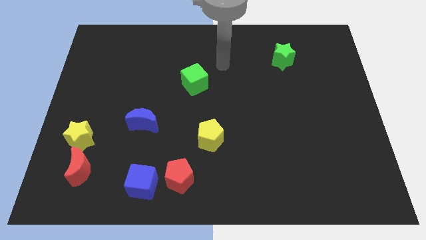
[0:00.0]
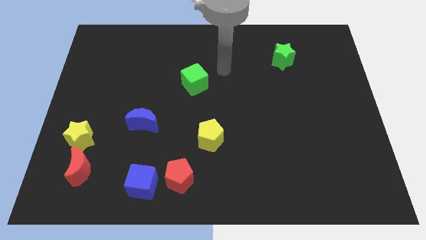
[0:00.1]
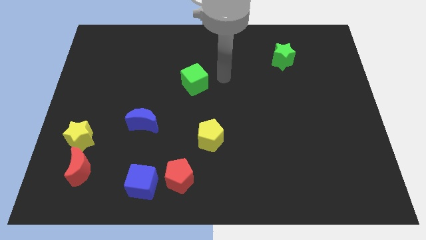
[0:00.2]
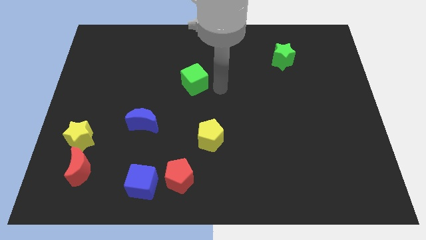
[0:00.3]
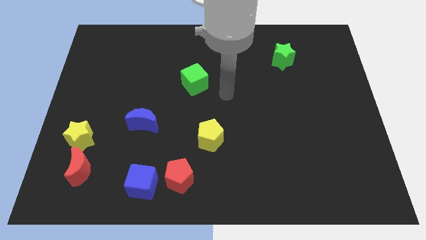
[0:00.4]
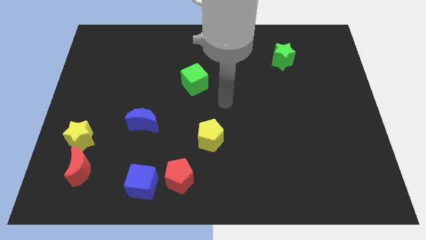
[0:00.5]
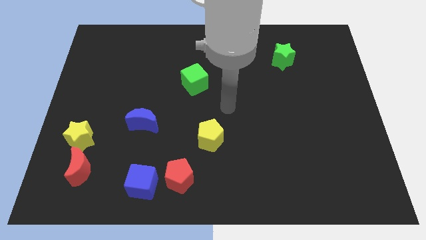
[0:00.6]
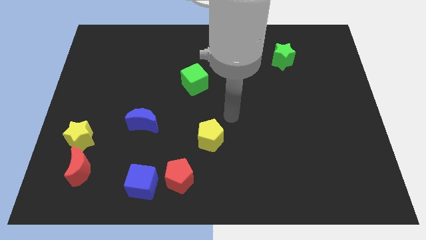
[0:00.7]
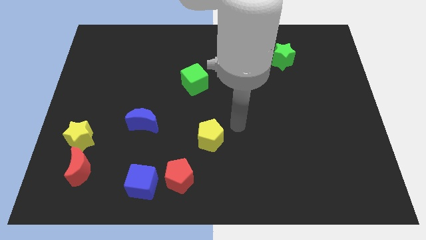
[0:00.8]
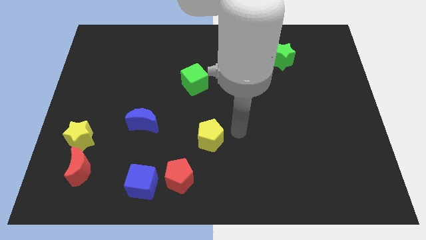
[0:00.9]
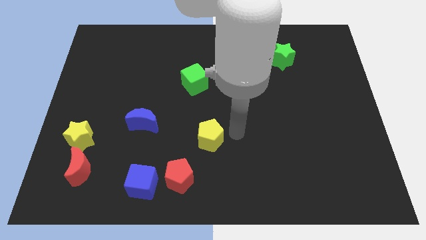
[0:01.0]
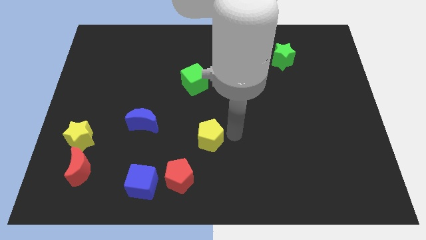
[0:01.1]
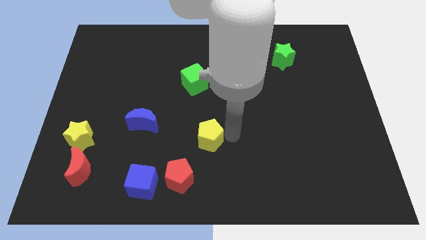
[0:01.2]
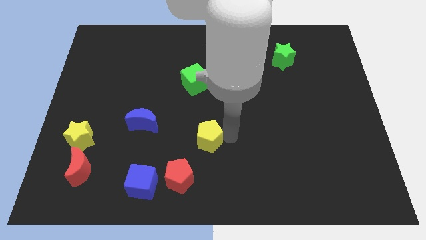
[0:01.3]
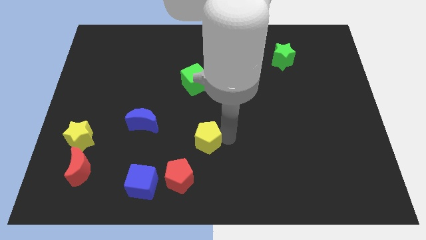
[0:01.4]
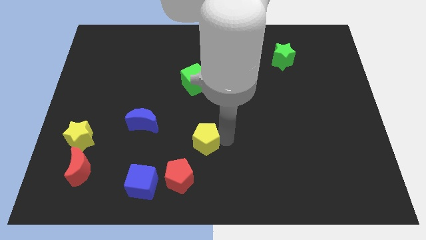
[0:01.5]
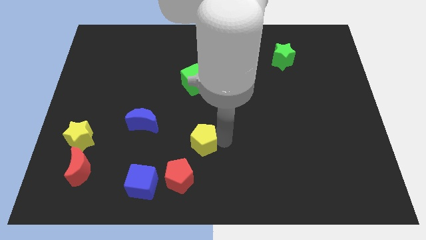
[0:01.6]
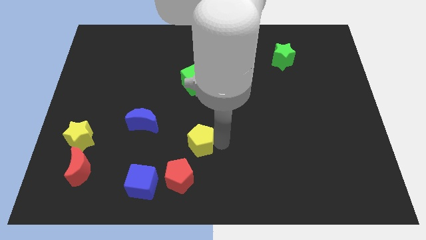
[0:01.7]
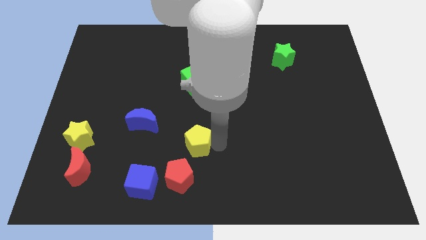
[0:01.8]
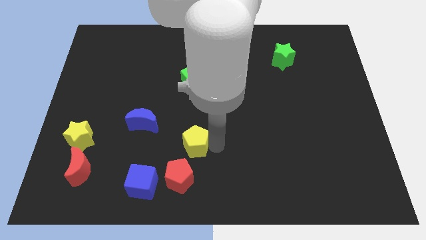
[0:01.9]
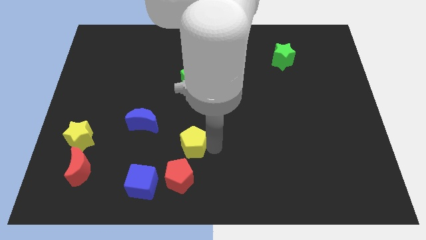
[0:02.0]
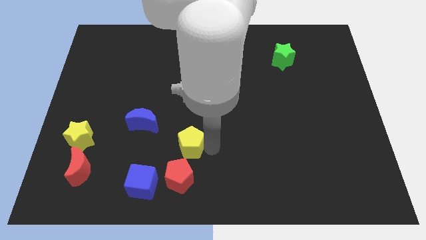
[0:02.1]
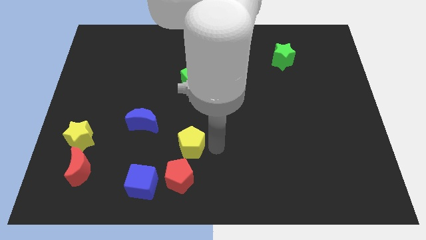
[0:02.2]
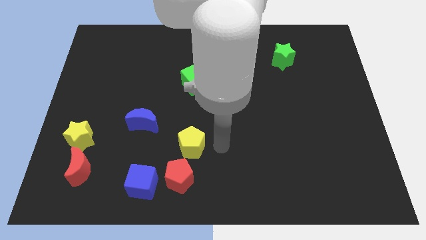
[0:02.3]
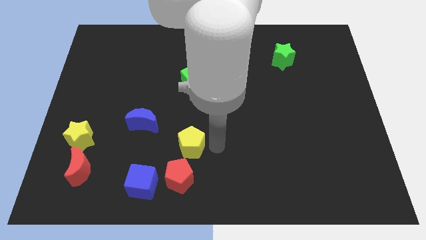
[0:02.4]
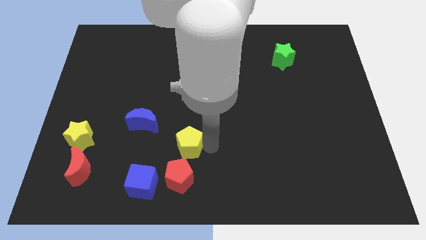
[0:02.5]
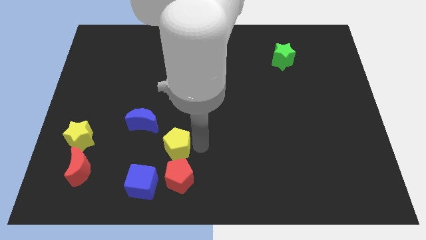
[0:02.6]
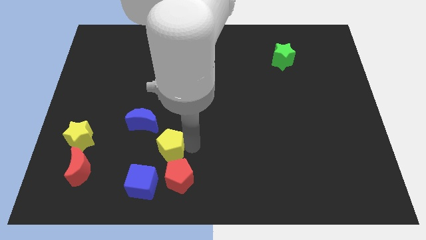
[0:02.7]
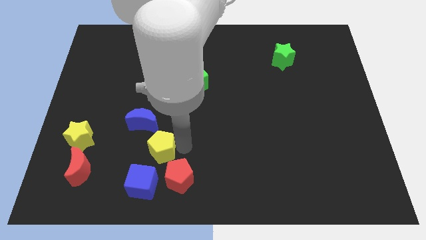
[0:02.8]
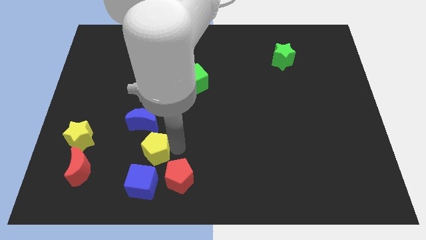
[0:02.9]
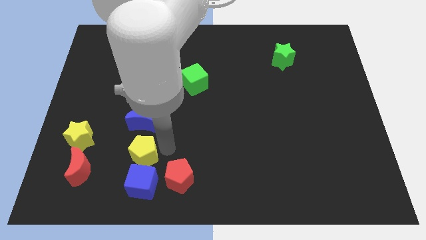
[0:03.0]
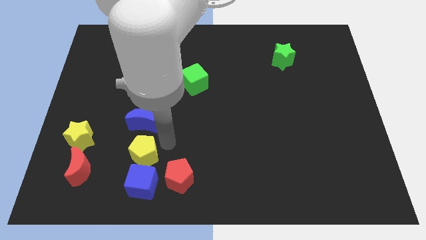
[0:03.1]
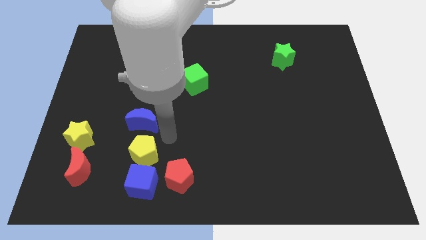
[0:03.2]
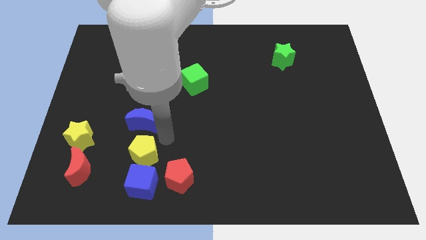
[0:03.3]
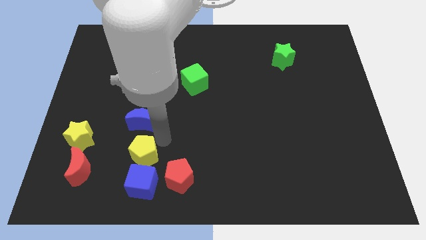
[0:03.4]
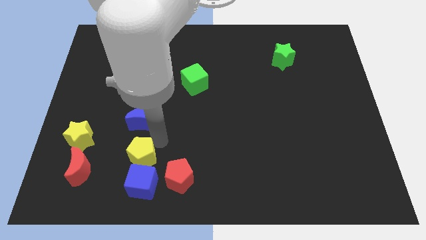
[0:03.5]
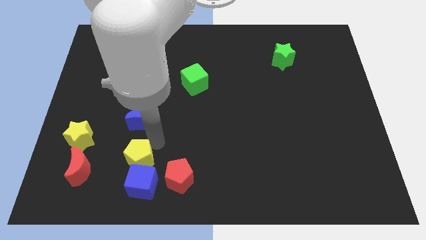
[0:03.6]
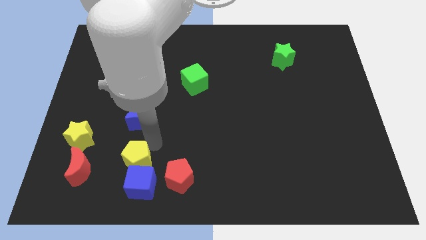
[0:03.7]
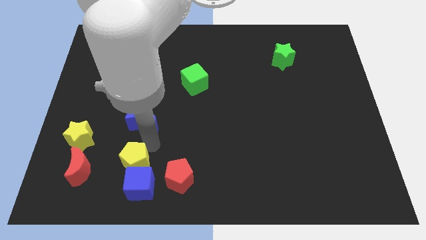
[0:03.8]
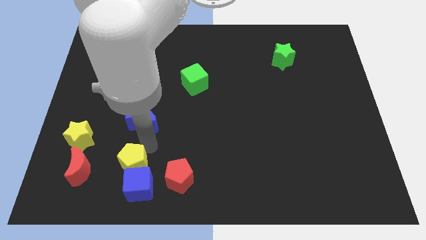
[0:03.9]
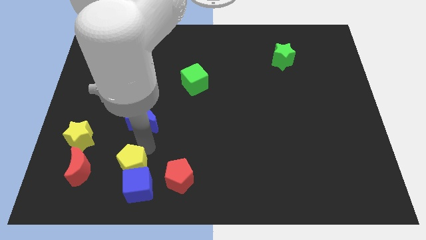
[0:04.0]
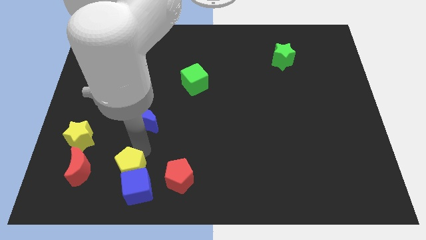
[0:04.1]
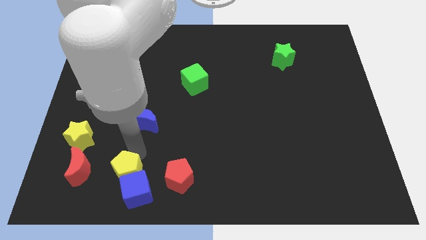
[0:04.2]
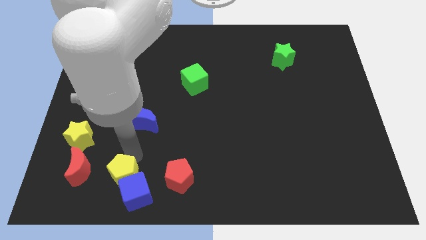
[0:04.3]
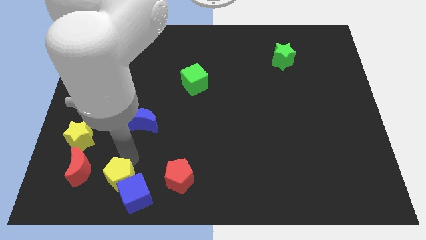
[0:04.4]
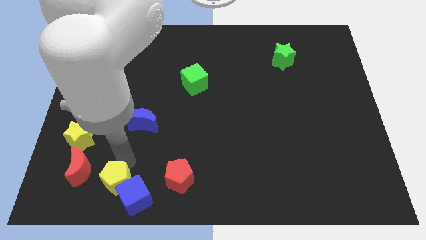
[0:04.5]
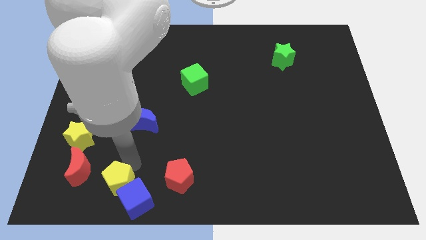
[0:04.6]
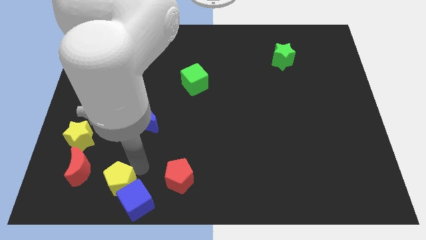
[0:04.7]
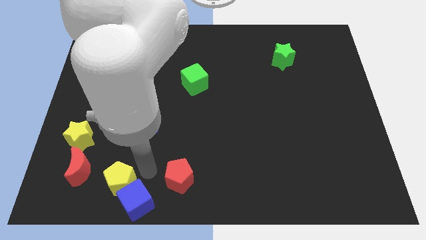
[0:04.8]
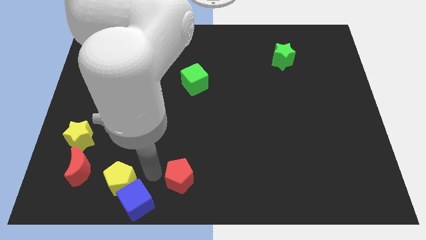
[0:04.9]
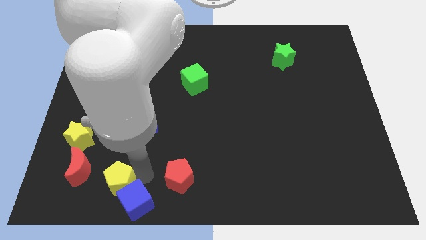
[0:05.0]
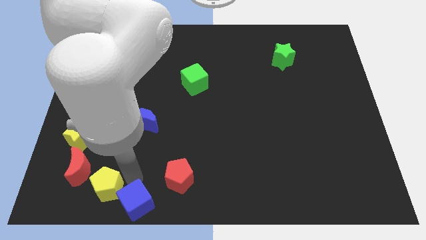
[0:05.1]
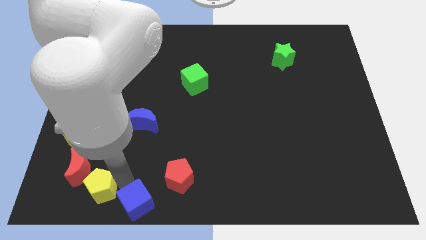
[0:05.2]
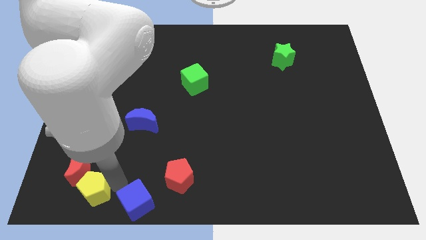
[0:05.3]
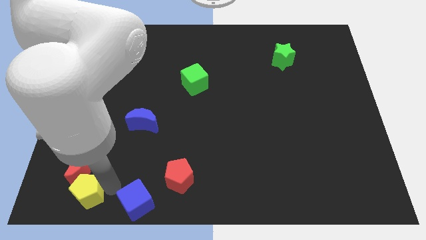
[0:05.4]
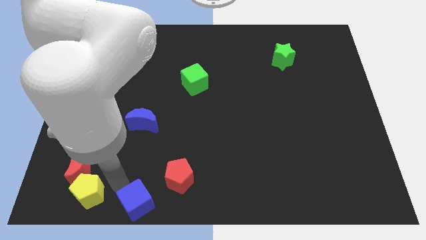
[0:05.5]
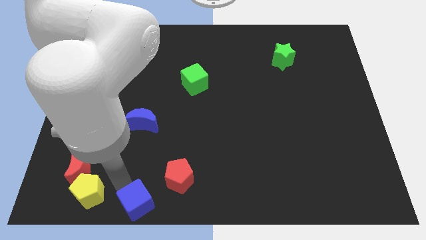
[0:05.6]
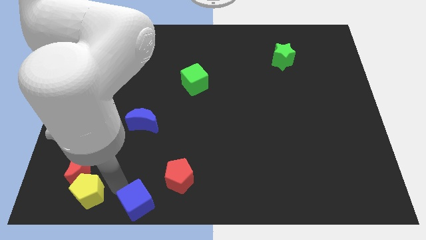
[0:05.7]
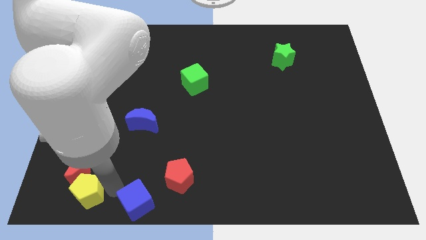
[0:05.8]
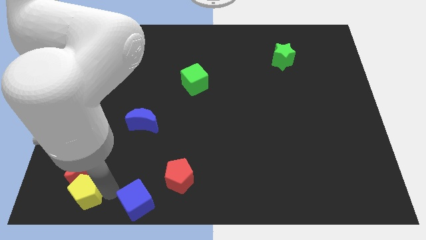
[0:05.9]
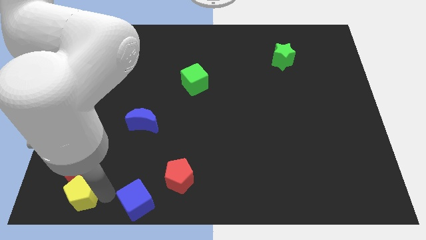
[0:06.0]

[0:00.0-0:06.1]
move the yellow pentagon to the bottom left of the board
